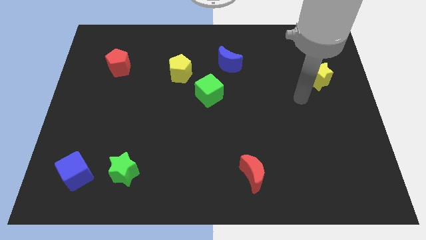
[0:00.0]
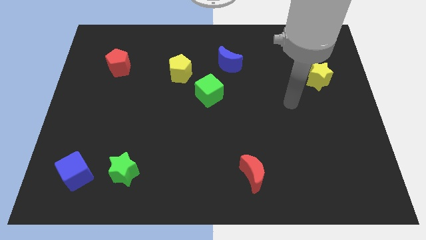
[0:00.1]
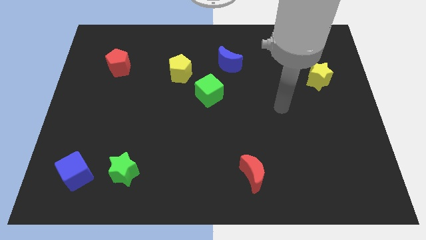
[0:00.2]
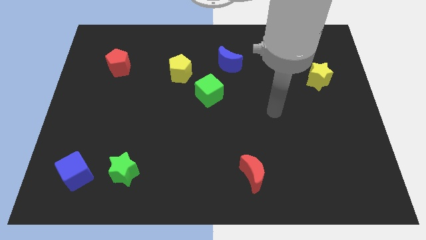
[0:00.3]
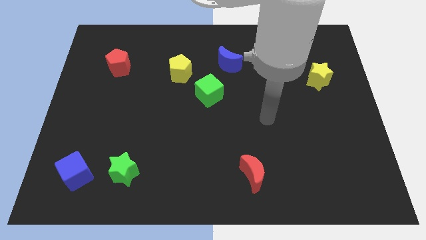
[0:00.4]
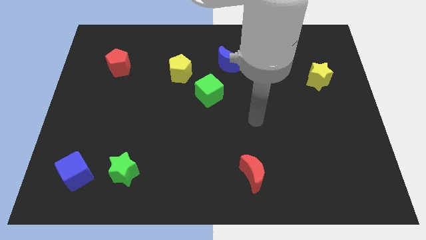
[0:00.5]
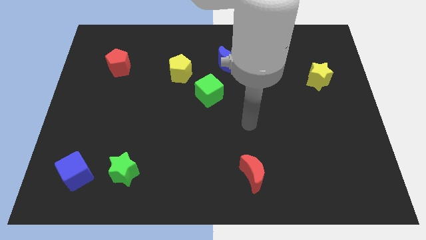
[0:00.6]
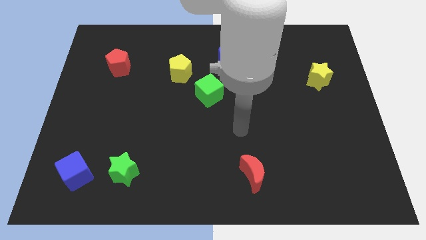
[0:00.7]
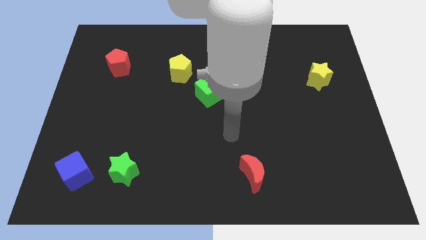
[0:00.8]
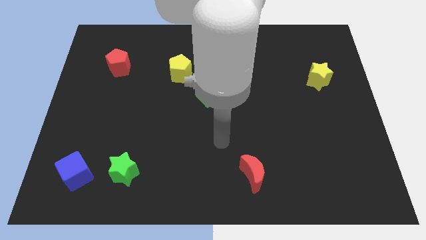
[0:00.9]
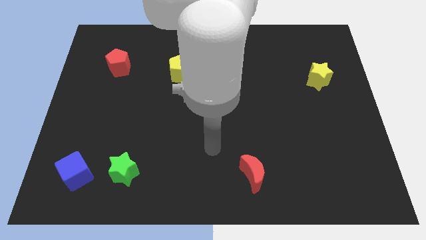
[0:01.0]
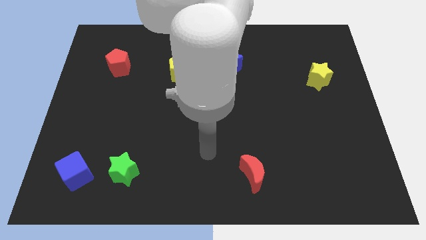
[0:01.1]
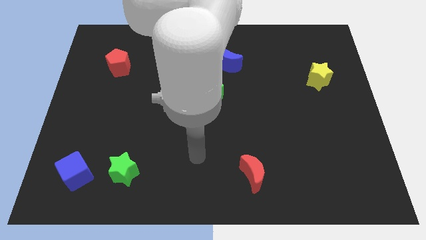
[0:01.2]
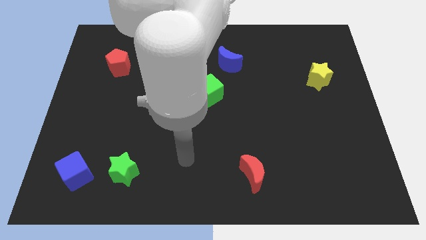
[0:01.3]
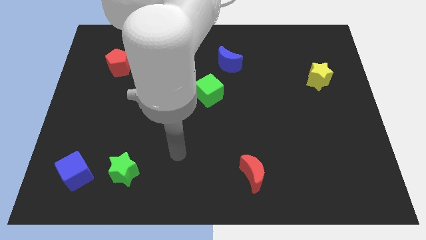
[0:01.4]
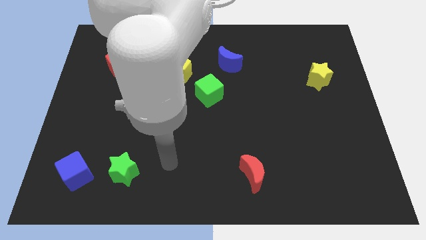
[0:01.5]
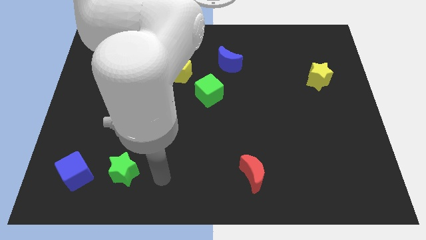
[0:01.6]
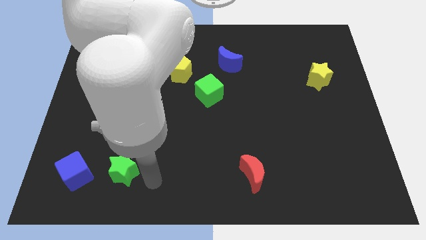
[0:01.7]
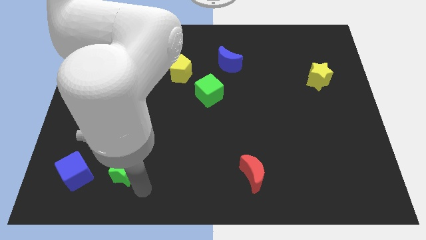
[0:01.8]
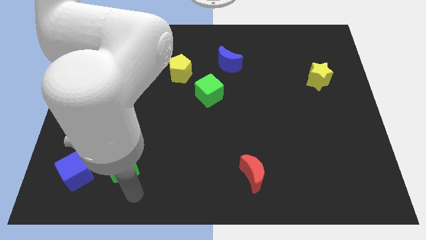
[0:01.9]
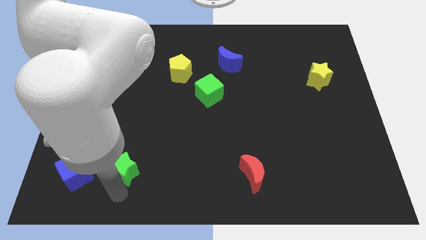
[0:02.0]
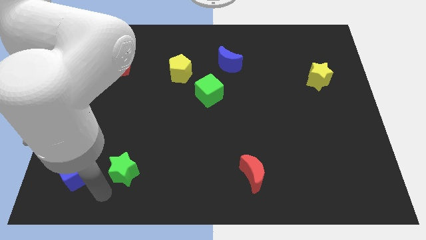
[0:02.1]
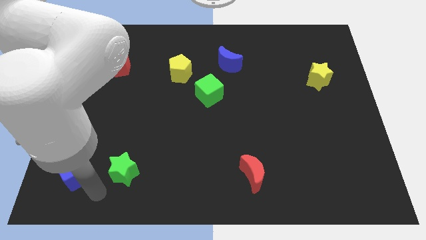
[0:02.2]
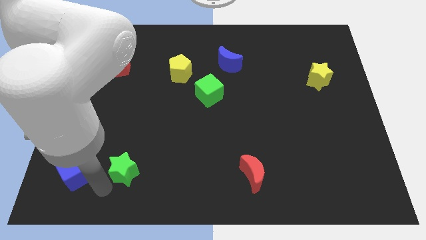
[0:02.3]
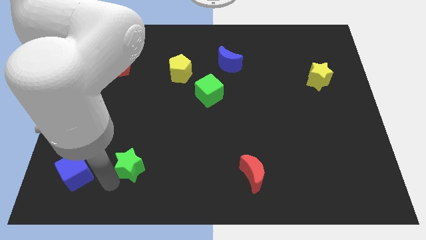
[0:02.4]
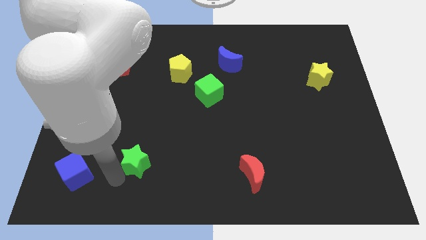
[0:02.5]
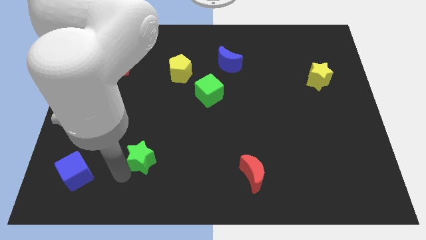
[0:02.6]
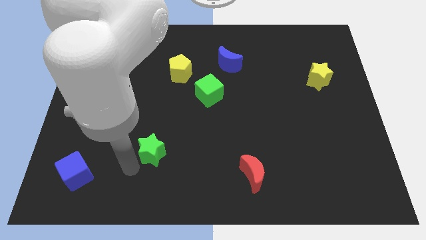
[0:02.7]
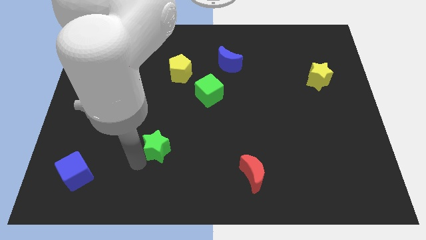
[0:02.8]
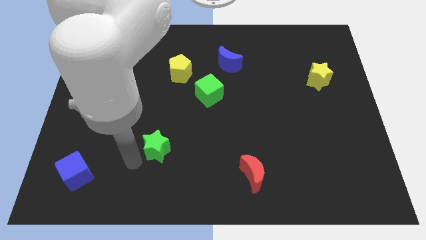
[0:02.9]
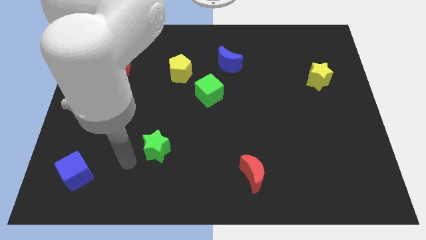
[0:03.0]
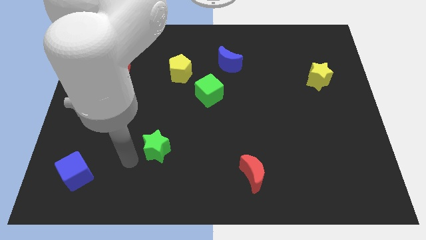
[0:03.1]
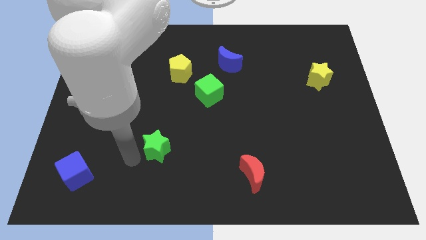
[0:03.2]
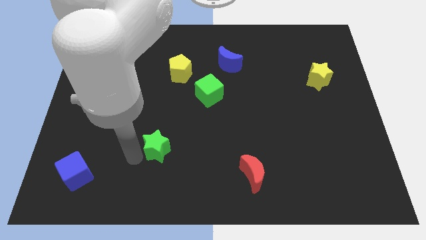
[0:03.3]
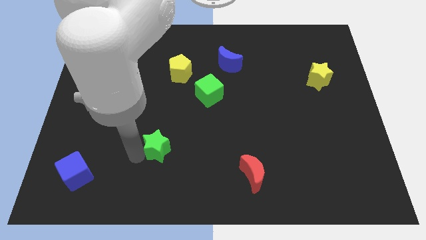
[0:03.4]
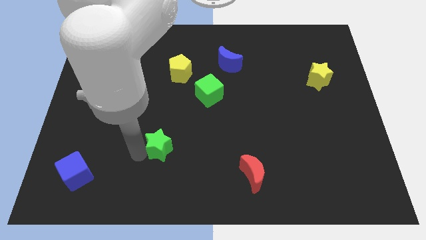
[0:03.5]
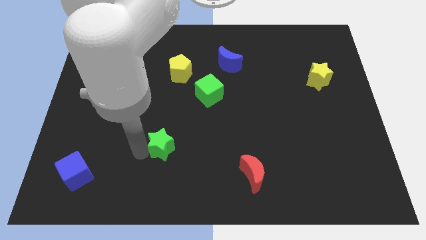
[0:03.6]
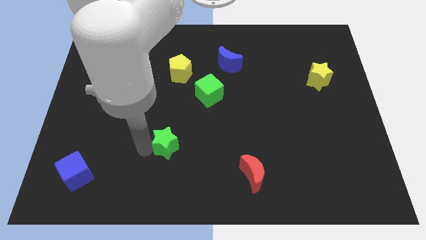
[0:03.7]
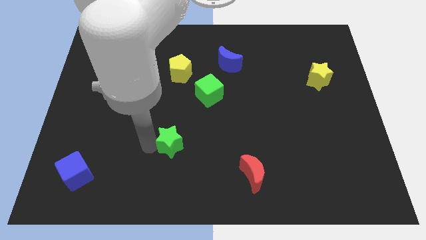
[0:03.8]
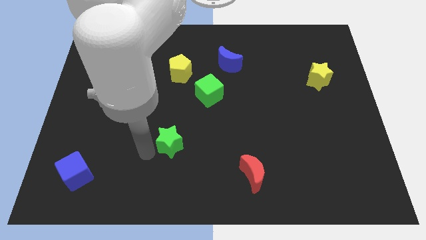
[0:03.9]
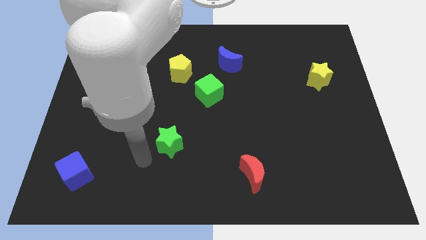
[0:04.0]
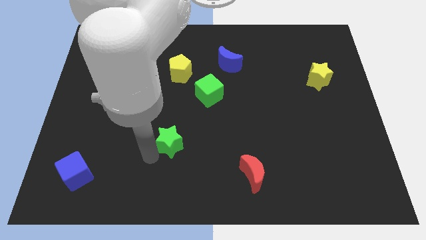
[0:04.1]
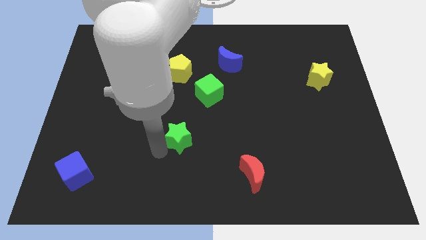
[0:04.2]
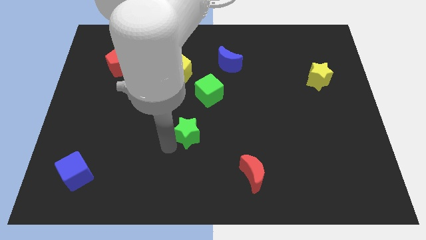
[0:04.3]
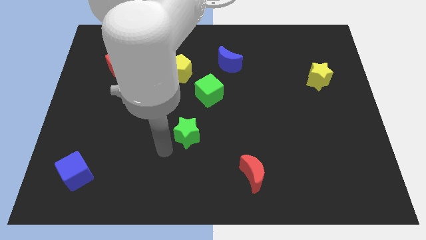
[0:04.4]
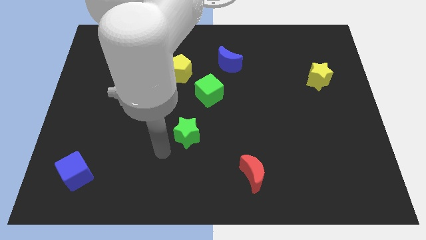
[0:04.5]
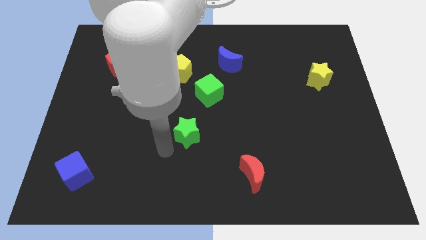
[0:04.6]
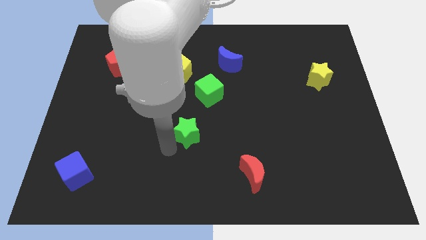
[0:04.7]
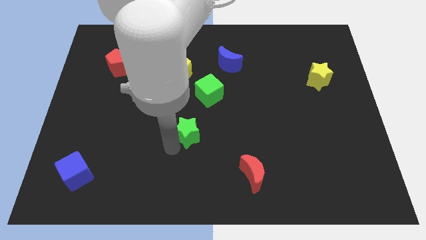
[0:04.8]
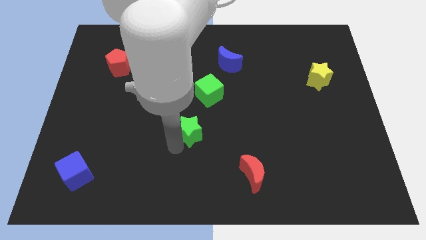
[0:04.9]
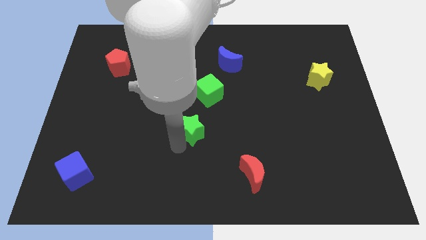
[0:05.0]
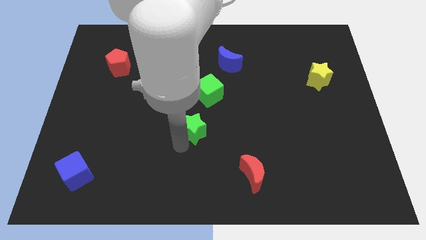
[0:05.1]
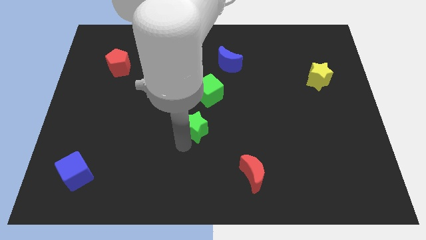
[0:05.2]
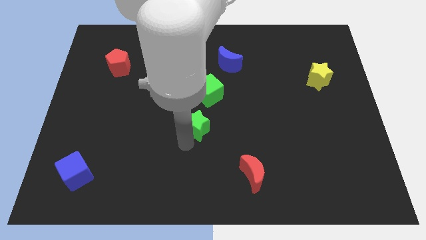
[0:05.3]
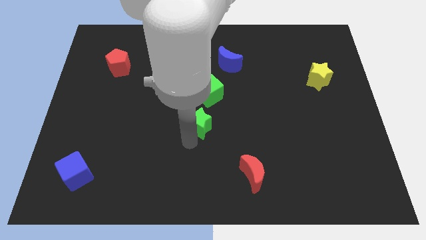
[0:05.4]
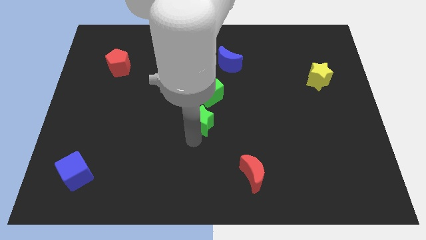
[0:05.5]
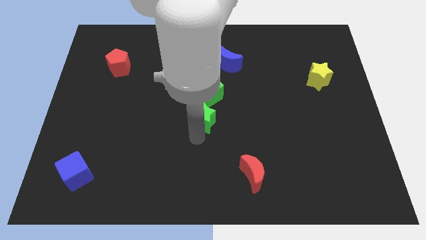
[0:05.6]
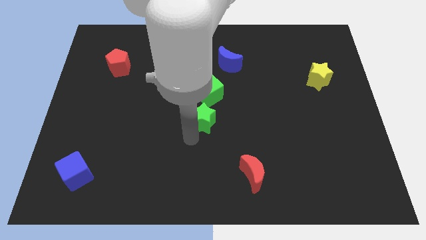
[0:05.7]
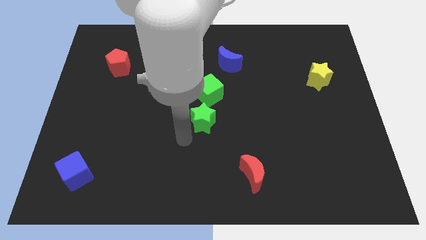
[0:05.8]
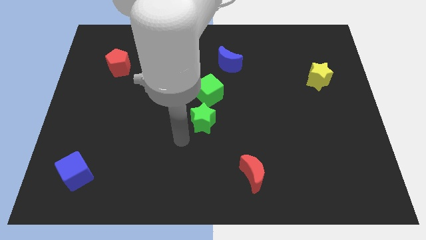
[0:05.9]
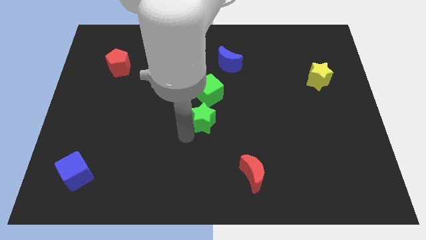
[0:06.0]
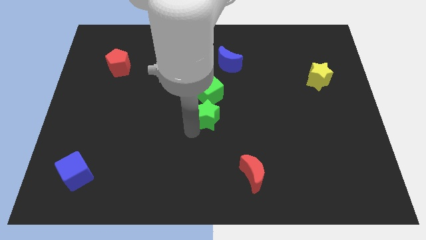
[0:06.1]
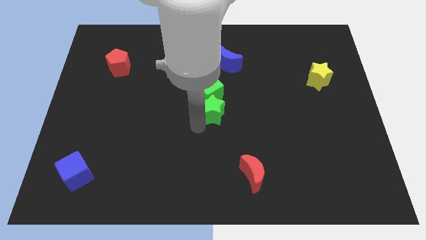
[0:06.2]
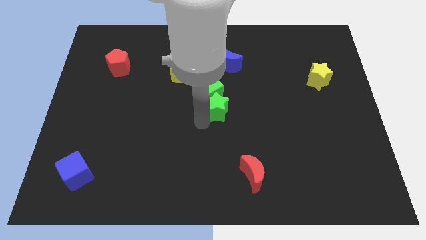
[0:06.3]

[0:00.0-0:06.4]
move the green star to the bottom of the blue moon
